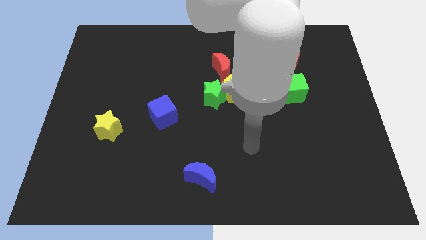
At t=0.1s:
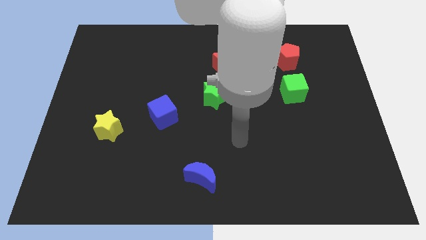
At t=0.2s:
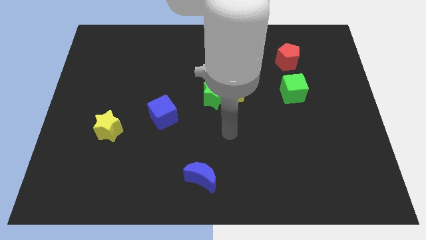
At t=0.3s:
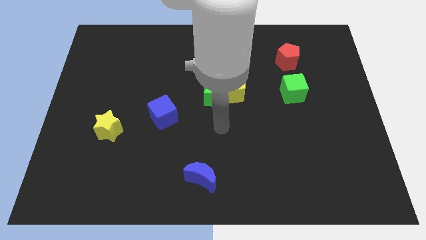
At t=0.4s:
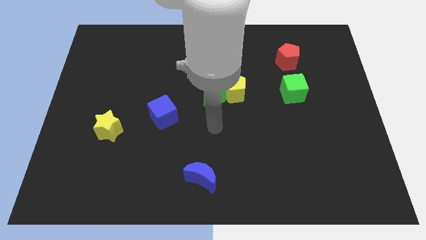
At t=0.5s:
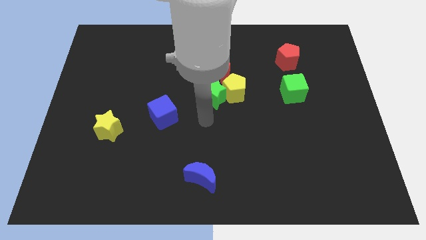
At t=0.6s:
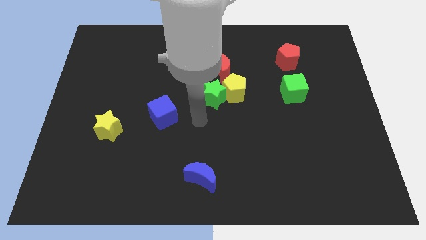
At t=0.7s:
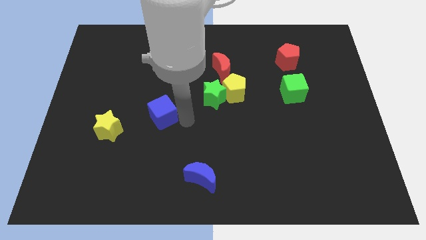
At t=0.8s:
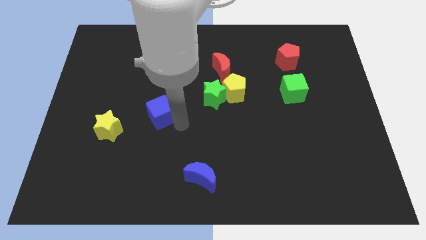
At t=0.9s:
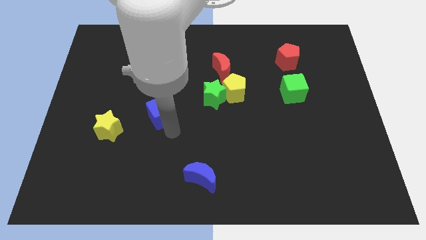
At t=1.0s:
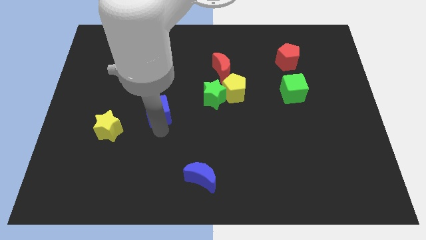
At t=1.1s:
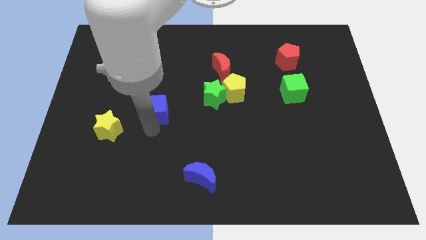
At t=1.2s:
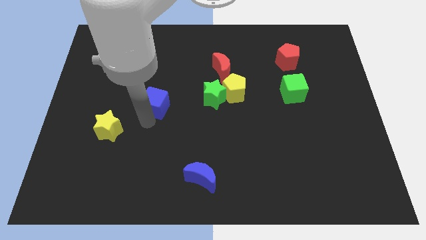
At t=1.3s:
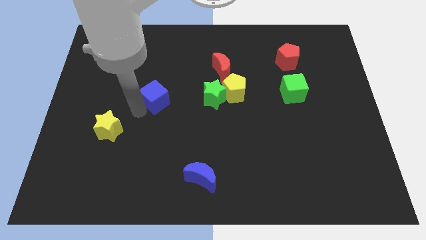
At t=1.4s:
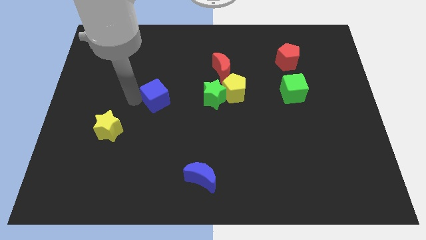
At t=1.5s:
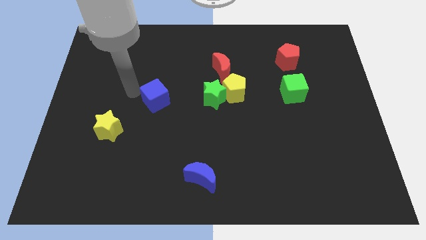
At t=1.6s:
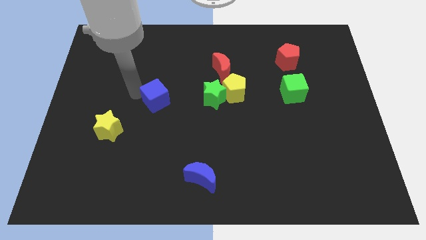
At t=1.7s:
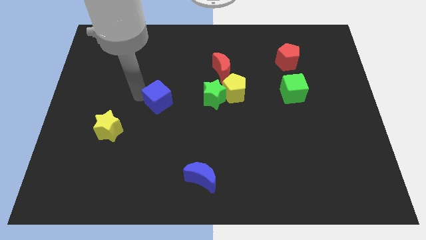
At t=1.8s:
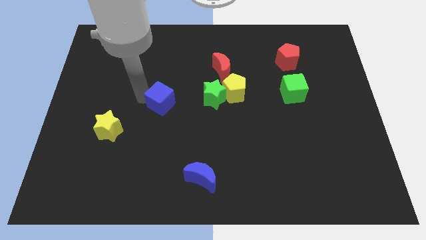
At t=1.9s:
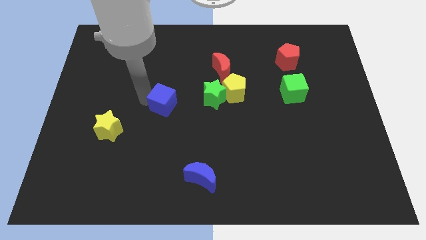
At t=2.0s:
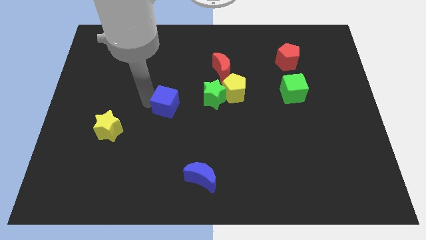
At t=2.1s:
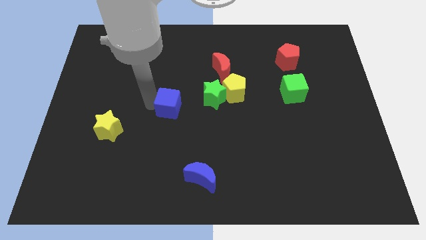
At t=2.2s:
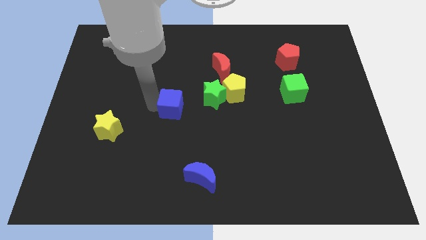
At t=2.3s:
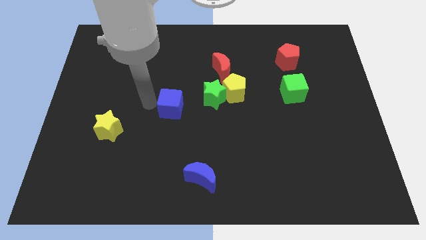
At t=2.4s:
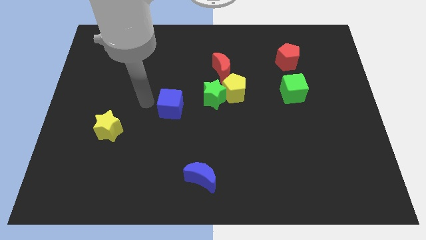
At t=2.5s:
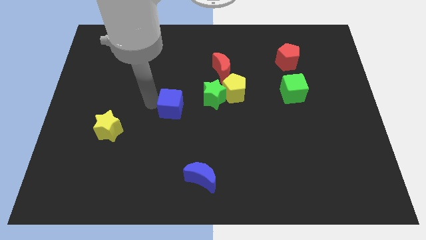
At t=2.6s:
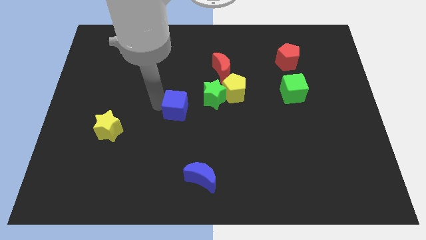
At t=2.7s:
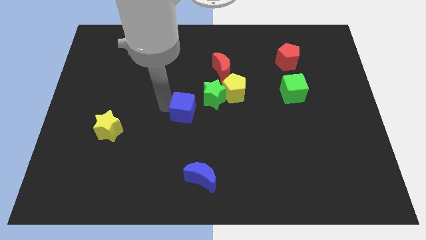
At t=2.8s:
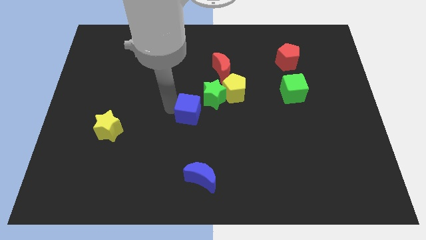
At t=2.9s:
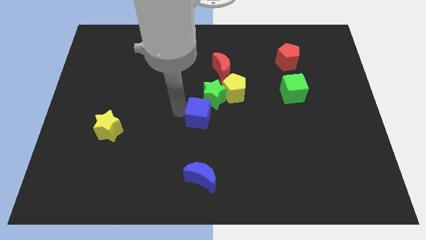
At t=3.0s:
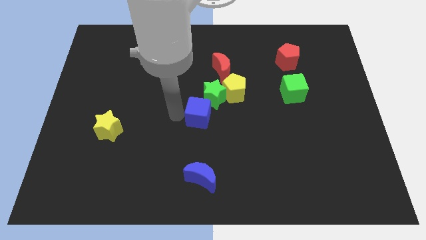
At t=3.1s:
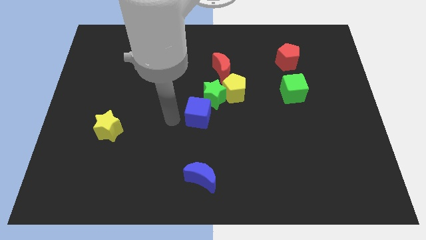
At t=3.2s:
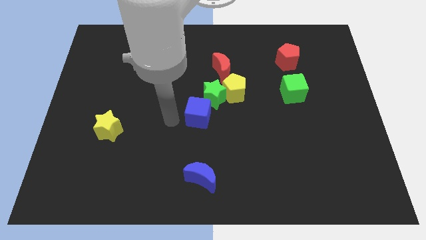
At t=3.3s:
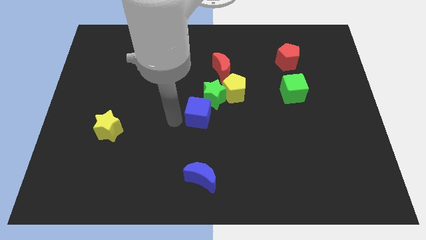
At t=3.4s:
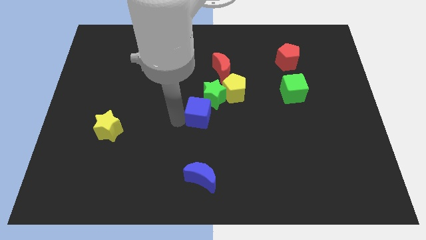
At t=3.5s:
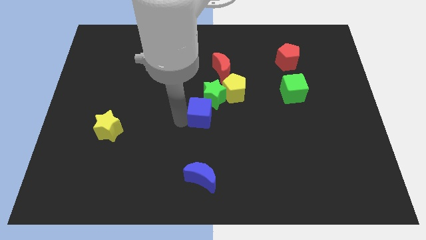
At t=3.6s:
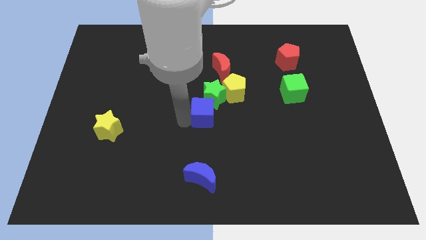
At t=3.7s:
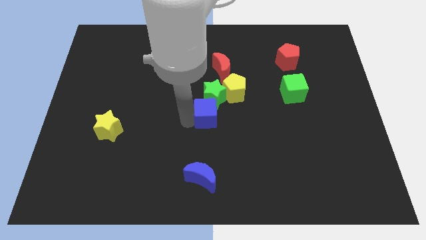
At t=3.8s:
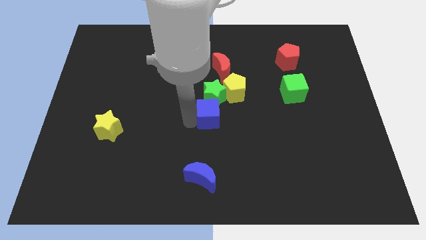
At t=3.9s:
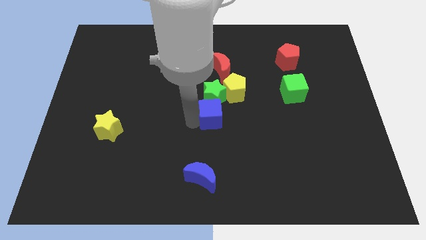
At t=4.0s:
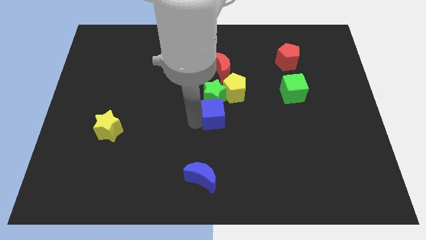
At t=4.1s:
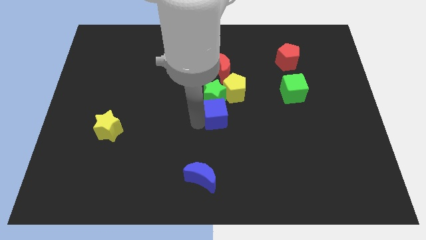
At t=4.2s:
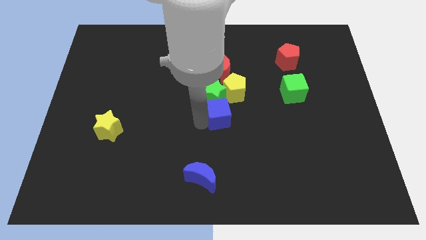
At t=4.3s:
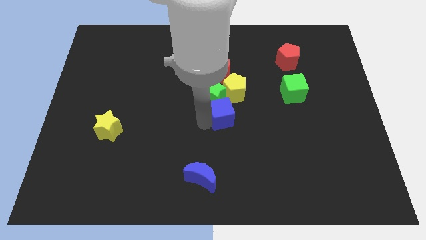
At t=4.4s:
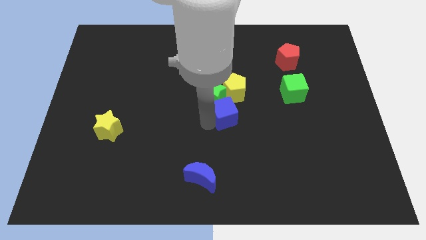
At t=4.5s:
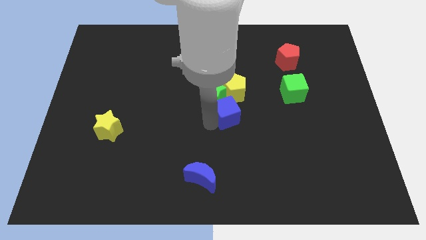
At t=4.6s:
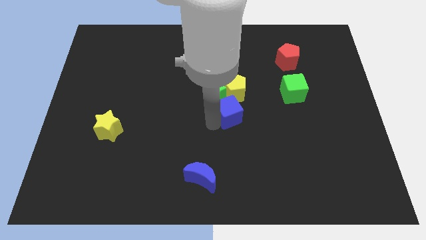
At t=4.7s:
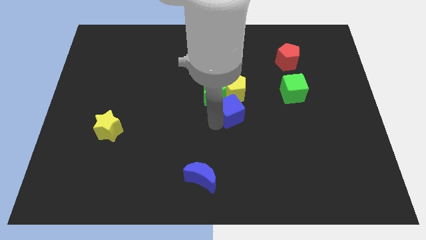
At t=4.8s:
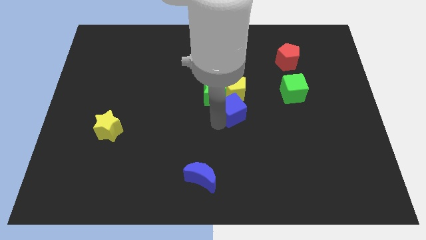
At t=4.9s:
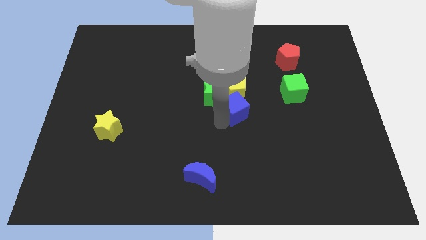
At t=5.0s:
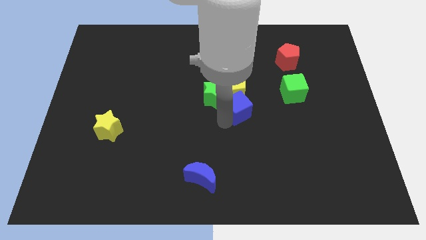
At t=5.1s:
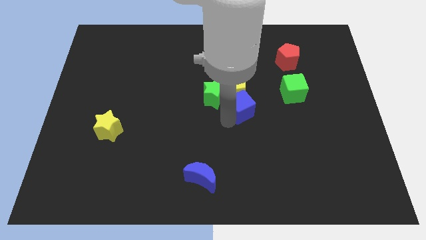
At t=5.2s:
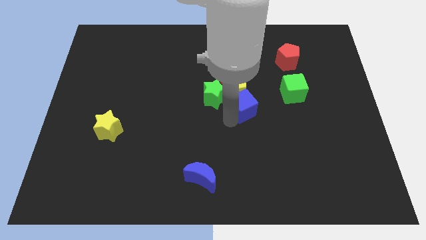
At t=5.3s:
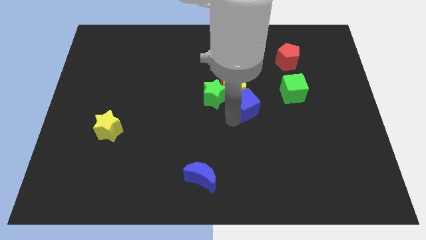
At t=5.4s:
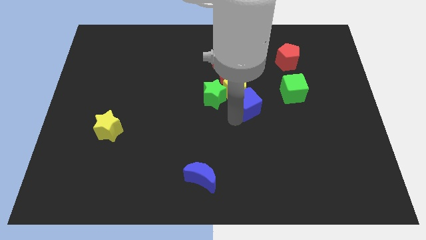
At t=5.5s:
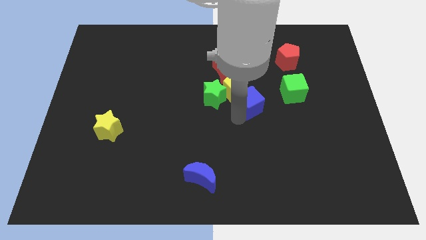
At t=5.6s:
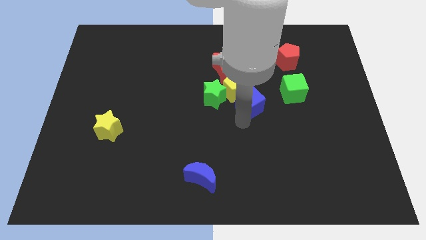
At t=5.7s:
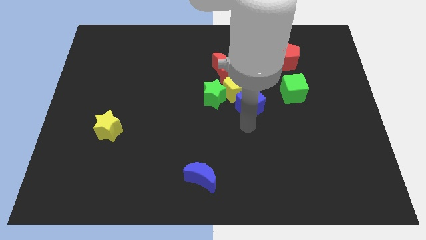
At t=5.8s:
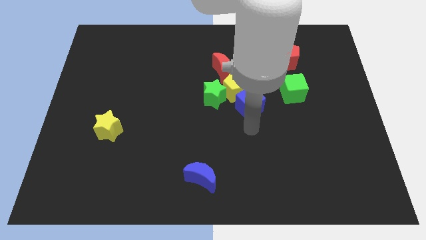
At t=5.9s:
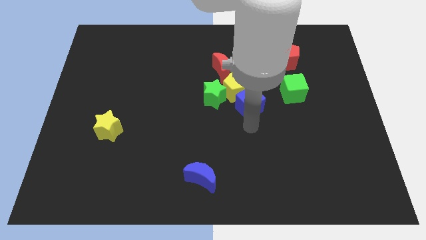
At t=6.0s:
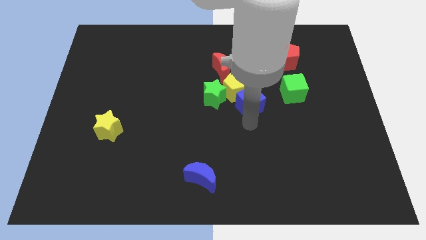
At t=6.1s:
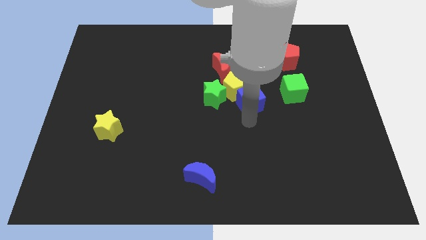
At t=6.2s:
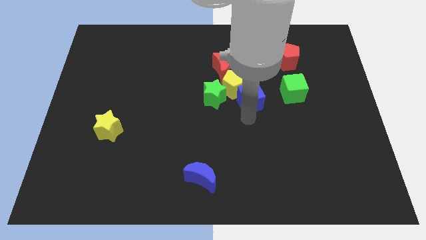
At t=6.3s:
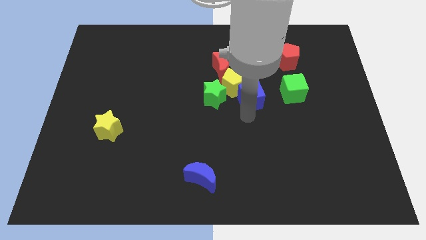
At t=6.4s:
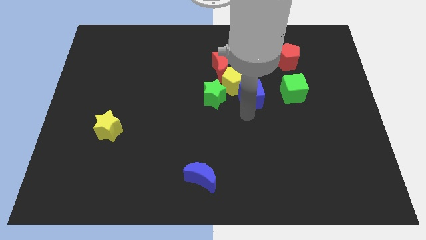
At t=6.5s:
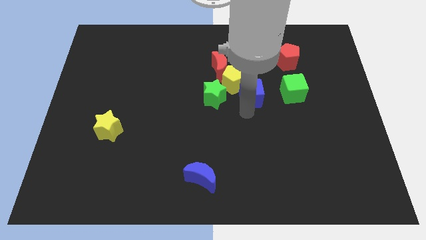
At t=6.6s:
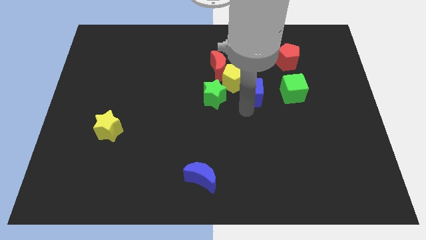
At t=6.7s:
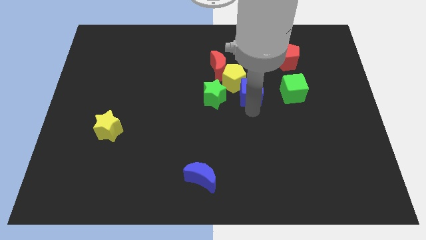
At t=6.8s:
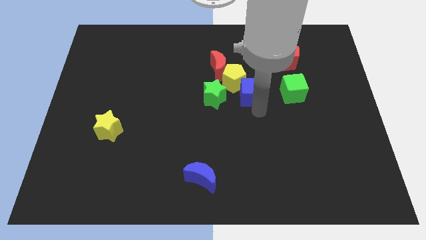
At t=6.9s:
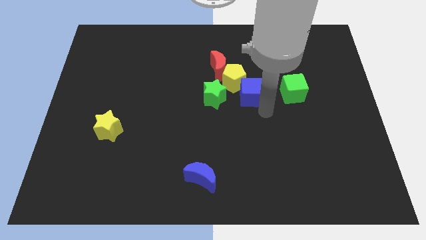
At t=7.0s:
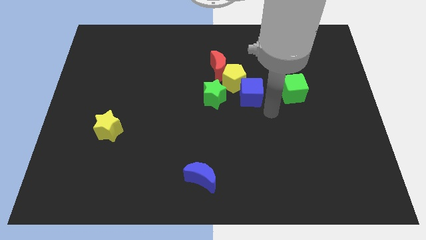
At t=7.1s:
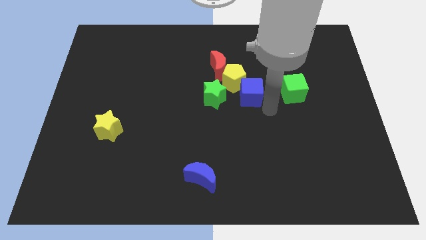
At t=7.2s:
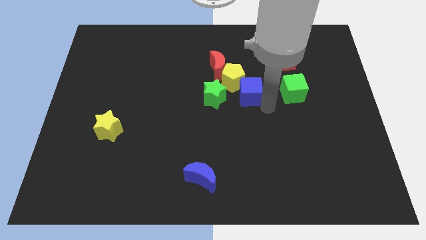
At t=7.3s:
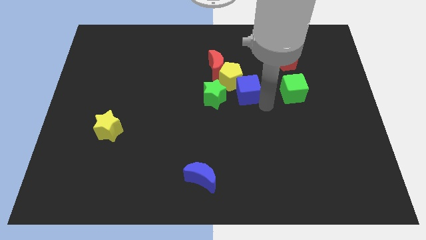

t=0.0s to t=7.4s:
push the blue cube to the top right side of the green star
